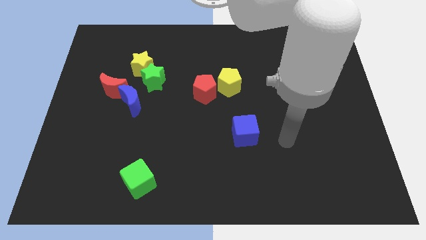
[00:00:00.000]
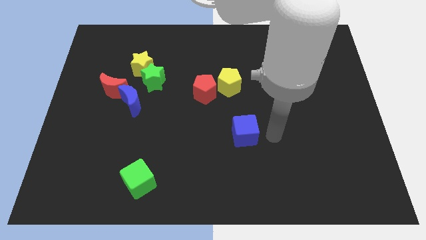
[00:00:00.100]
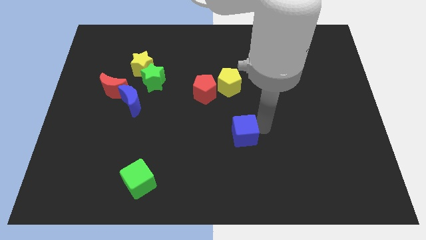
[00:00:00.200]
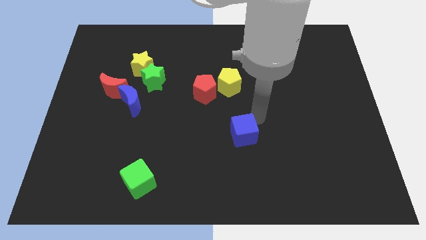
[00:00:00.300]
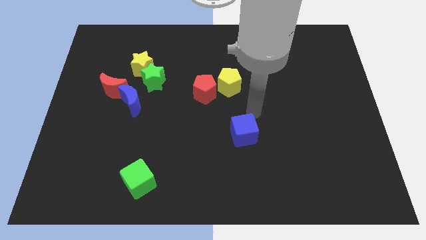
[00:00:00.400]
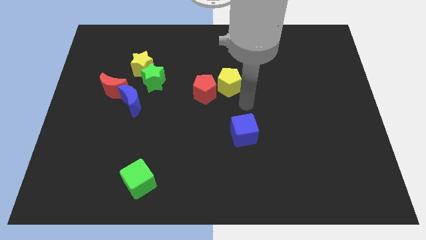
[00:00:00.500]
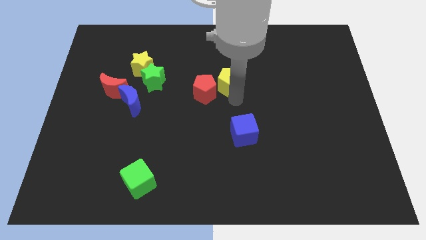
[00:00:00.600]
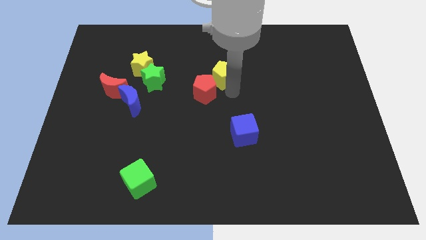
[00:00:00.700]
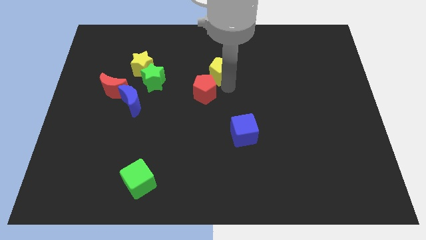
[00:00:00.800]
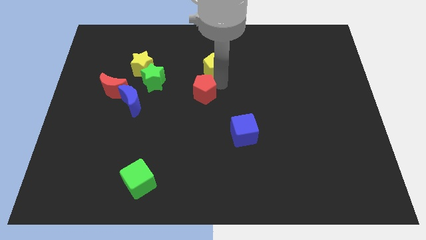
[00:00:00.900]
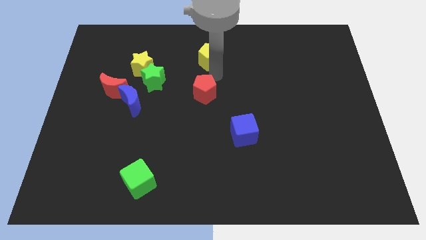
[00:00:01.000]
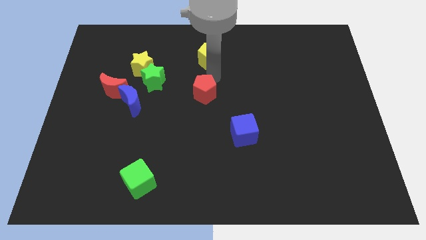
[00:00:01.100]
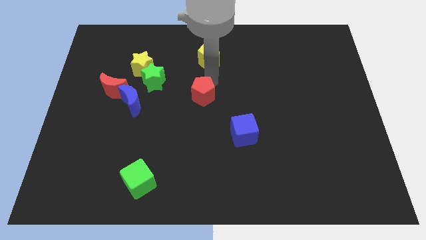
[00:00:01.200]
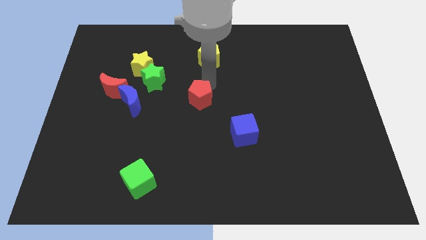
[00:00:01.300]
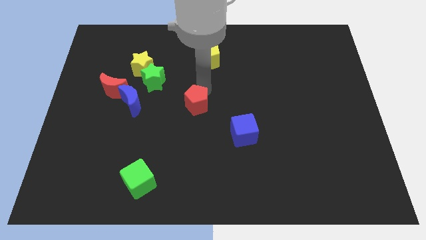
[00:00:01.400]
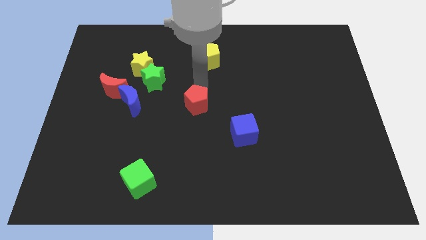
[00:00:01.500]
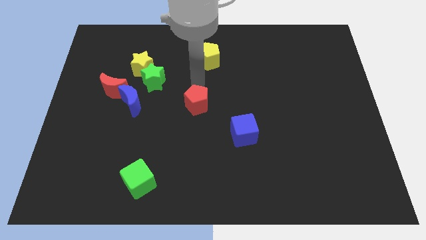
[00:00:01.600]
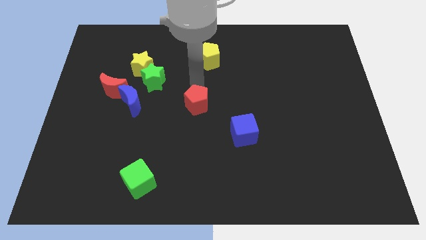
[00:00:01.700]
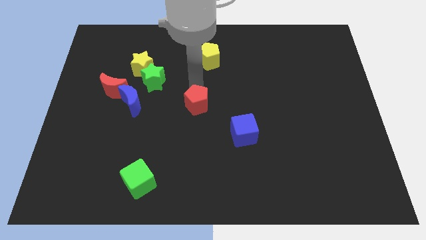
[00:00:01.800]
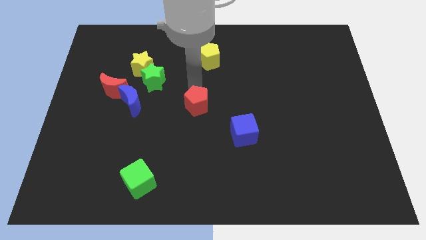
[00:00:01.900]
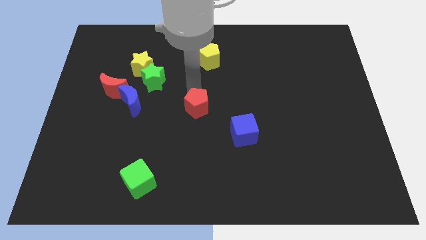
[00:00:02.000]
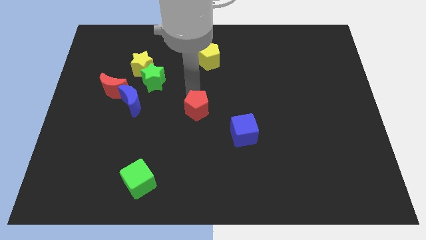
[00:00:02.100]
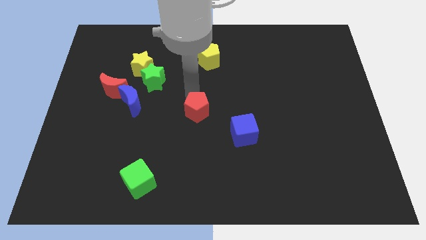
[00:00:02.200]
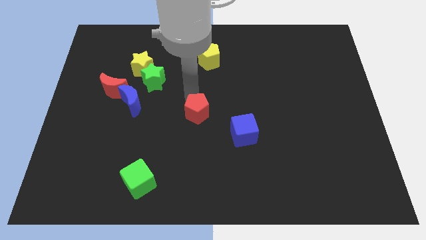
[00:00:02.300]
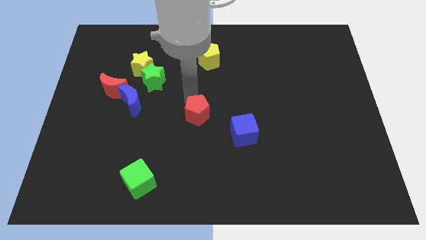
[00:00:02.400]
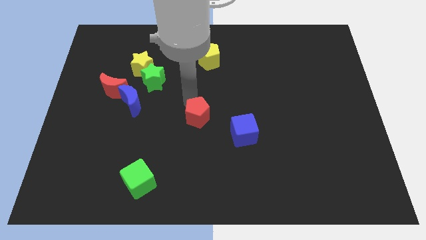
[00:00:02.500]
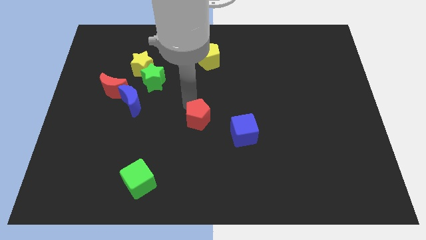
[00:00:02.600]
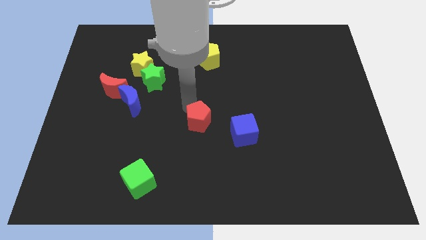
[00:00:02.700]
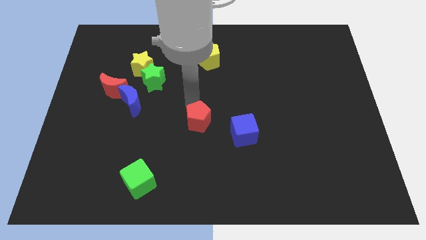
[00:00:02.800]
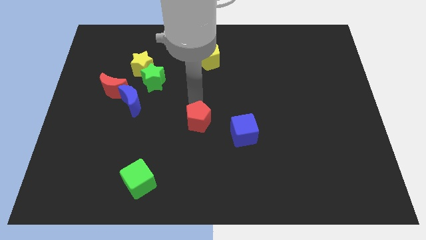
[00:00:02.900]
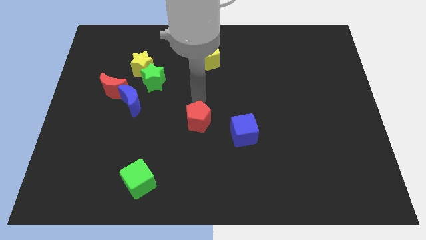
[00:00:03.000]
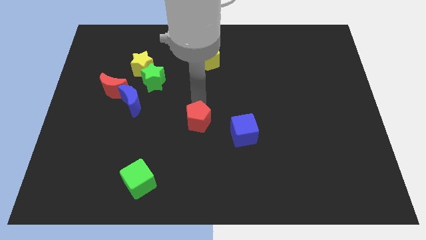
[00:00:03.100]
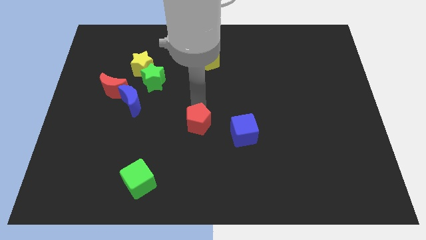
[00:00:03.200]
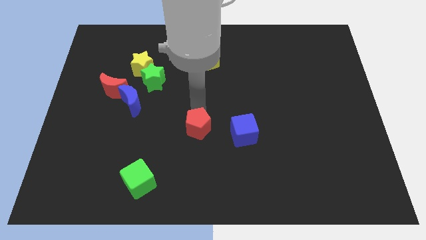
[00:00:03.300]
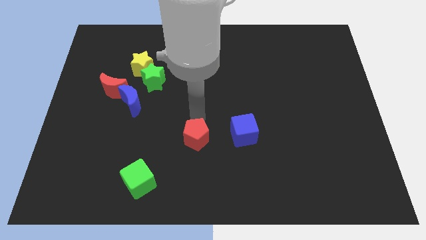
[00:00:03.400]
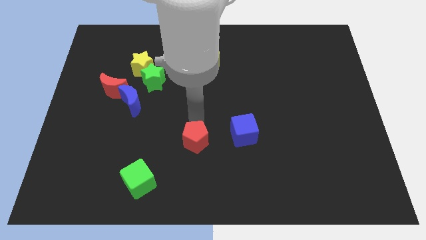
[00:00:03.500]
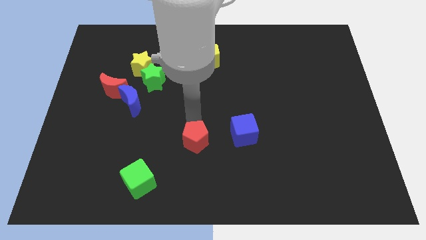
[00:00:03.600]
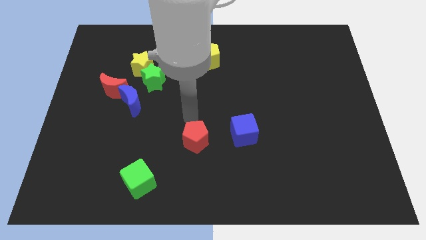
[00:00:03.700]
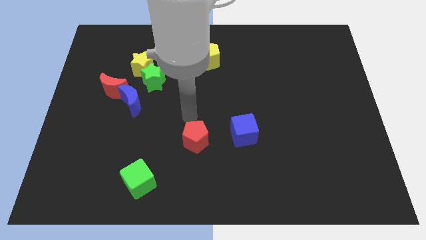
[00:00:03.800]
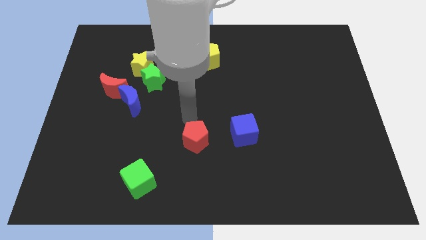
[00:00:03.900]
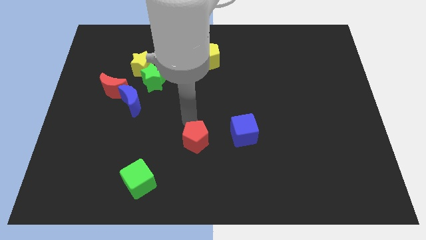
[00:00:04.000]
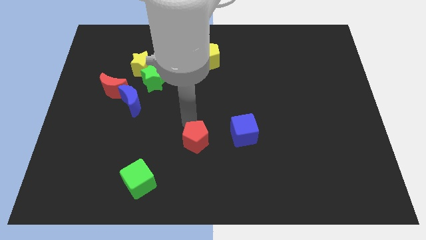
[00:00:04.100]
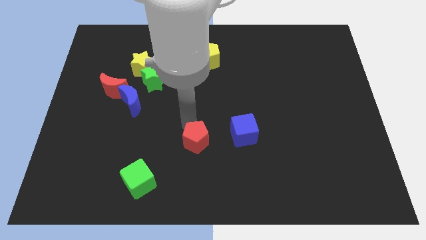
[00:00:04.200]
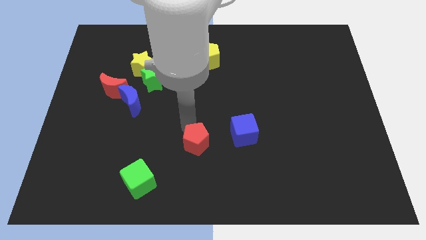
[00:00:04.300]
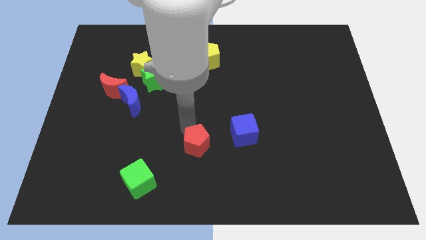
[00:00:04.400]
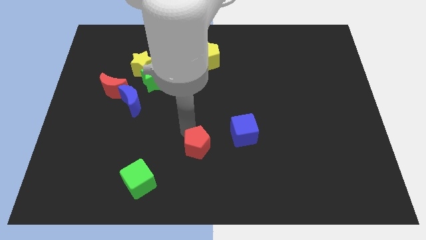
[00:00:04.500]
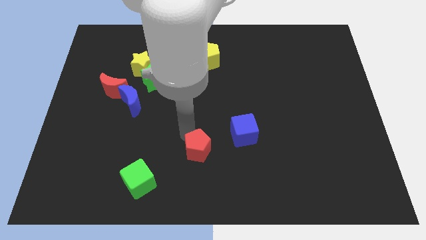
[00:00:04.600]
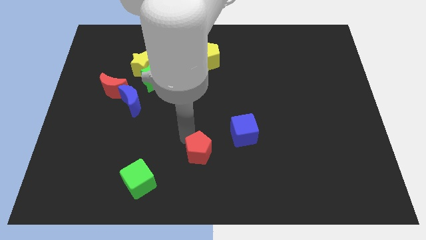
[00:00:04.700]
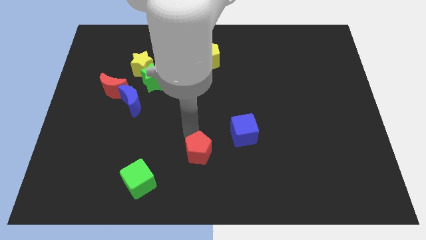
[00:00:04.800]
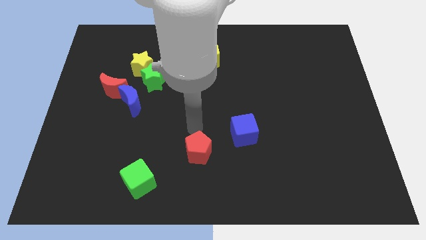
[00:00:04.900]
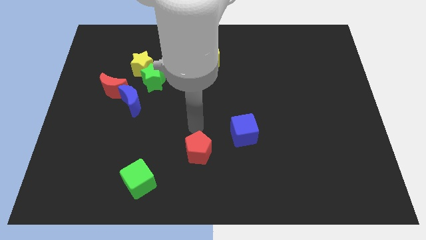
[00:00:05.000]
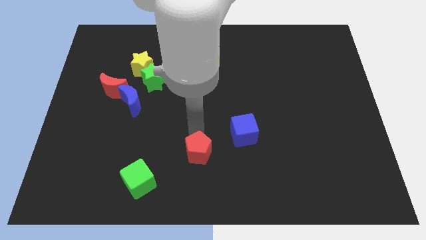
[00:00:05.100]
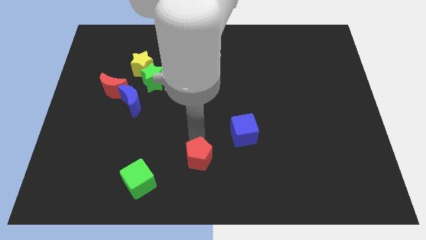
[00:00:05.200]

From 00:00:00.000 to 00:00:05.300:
slide the red pentagon to the bottom side

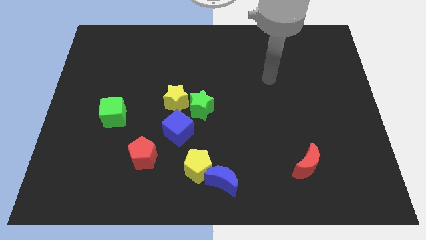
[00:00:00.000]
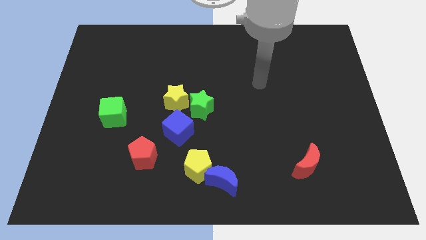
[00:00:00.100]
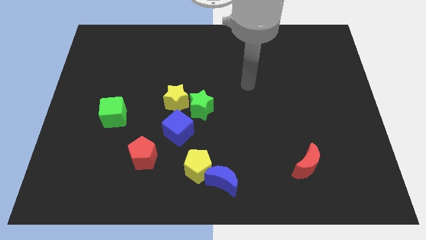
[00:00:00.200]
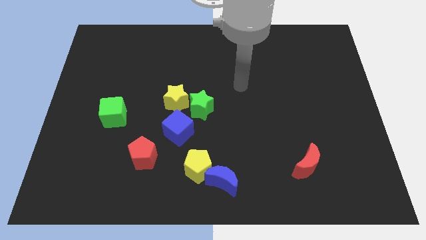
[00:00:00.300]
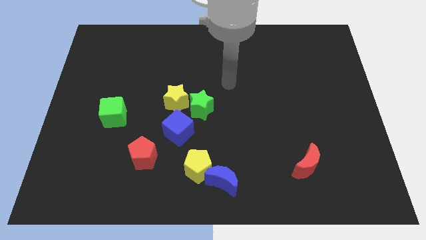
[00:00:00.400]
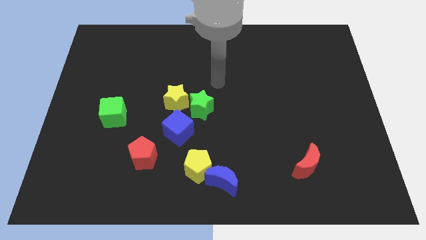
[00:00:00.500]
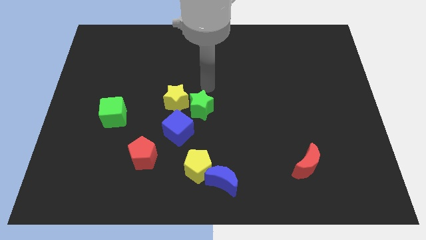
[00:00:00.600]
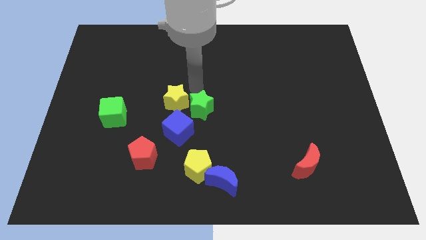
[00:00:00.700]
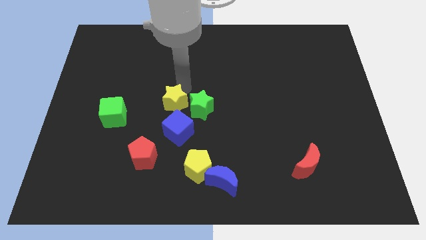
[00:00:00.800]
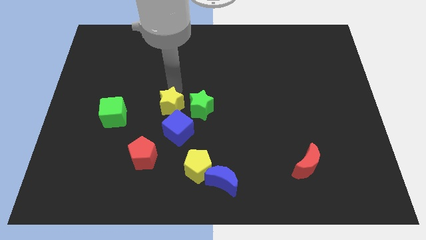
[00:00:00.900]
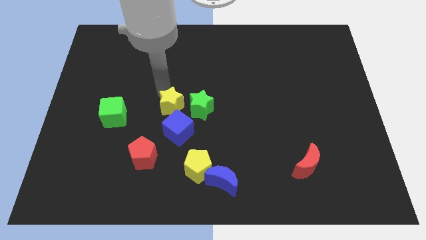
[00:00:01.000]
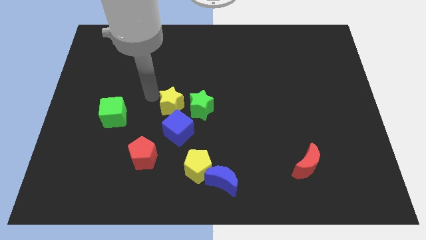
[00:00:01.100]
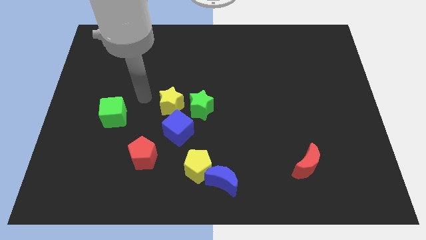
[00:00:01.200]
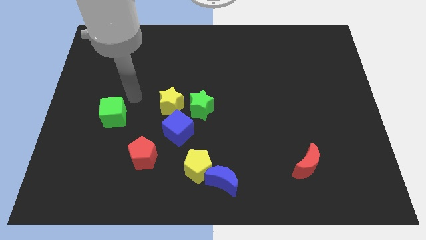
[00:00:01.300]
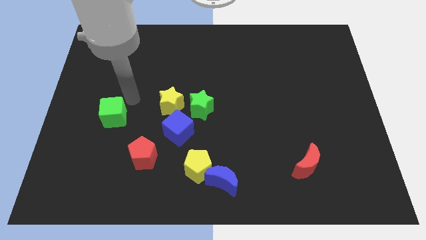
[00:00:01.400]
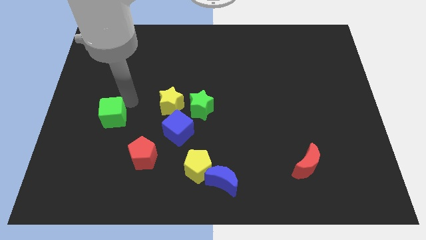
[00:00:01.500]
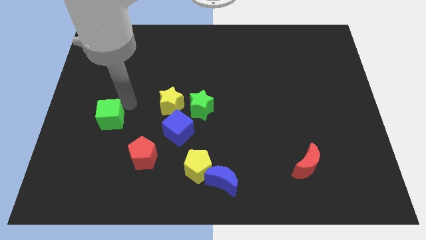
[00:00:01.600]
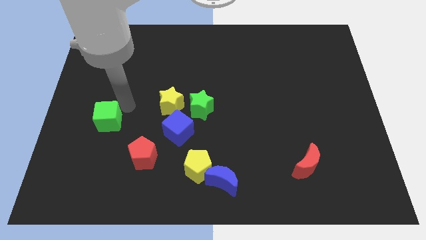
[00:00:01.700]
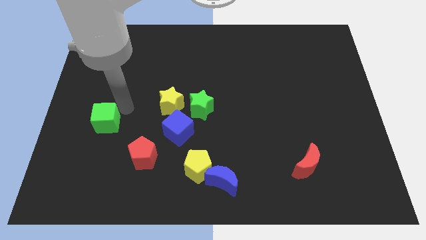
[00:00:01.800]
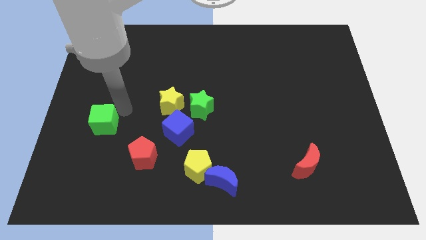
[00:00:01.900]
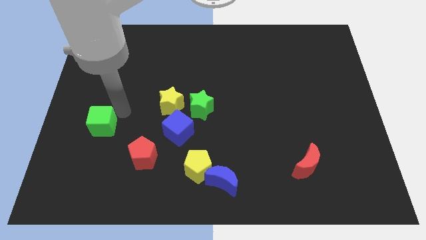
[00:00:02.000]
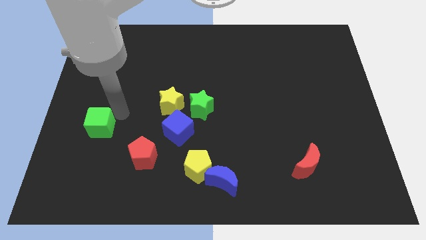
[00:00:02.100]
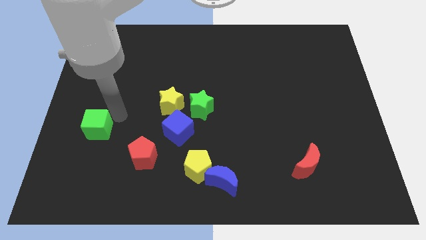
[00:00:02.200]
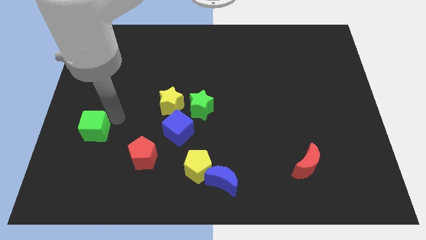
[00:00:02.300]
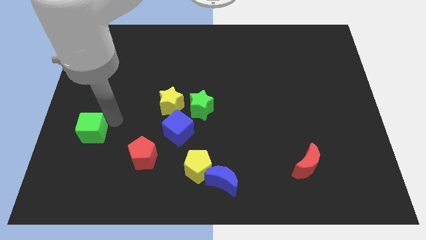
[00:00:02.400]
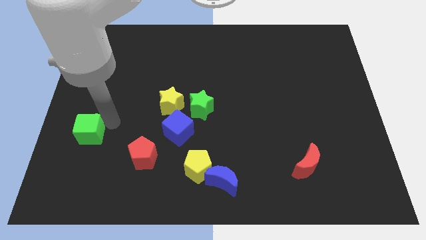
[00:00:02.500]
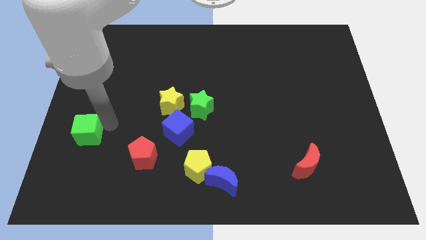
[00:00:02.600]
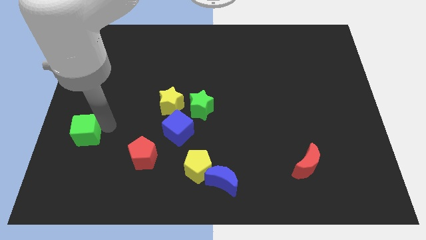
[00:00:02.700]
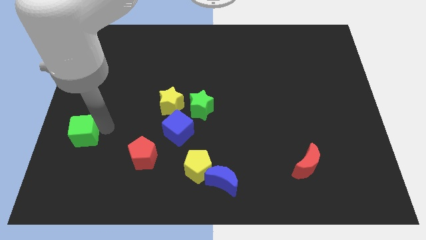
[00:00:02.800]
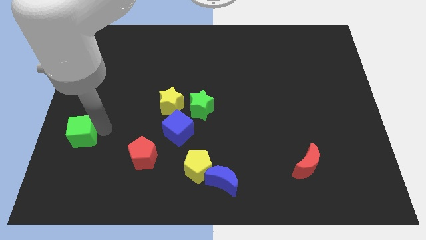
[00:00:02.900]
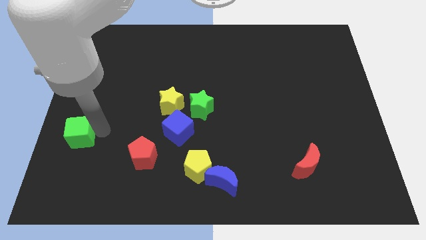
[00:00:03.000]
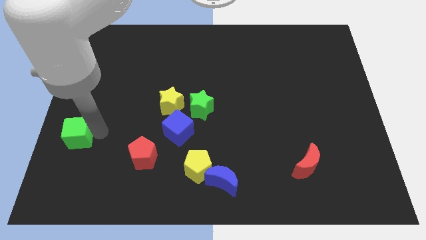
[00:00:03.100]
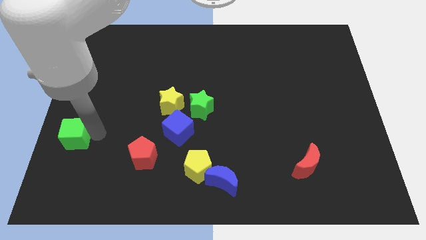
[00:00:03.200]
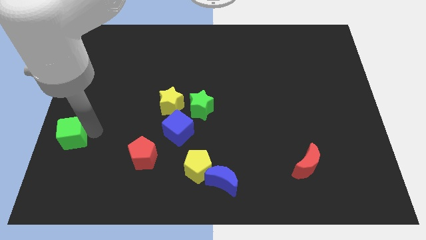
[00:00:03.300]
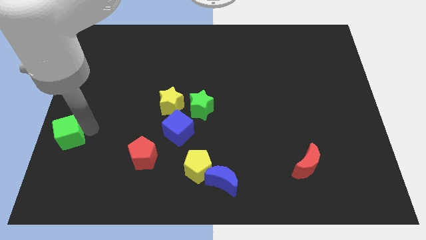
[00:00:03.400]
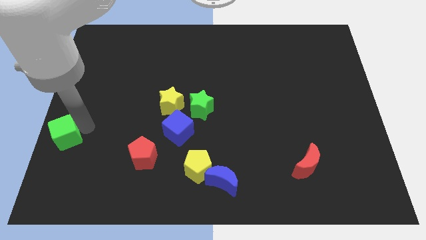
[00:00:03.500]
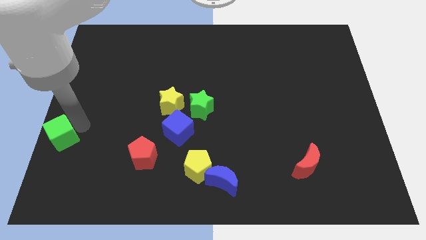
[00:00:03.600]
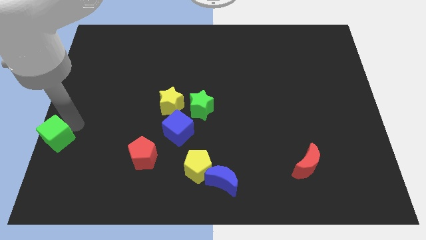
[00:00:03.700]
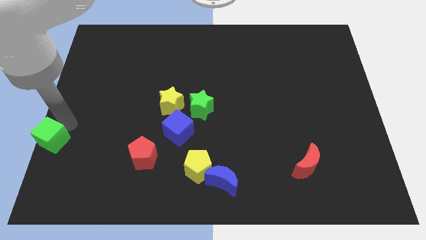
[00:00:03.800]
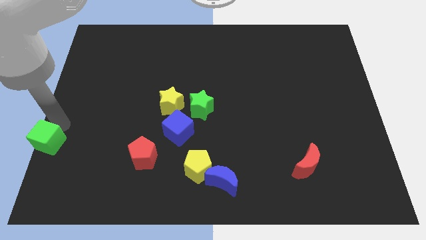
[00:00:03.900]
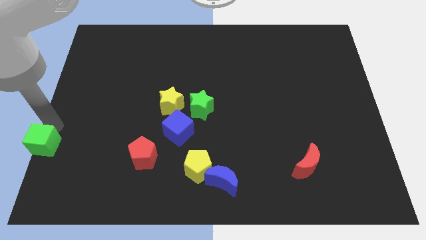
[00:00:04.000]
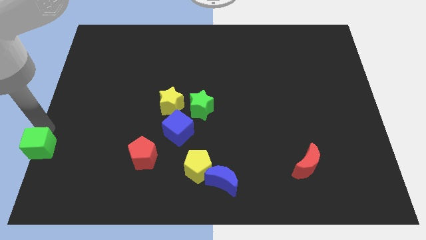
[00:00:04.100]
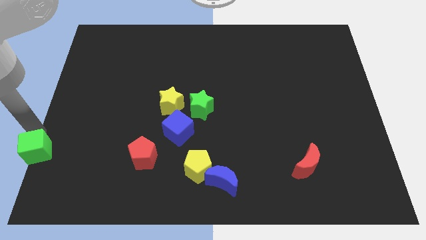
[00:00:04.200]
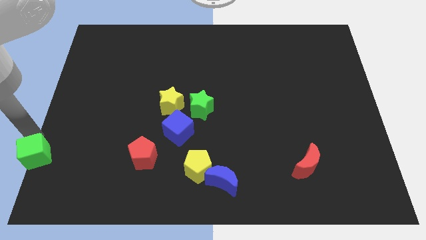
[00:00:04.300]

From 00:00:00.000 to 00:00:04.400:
put the green cube to the bottom left of the board
